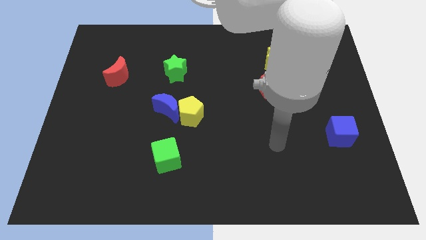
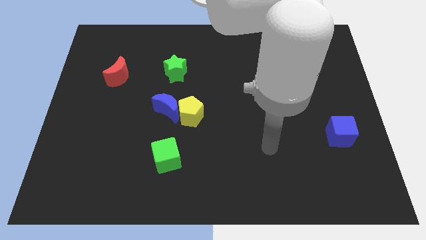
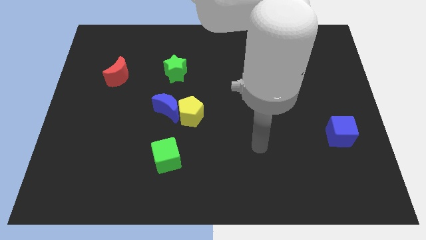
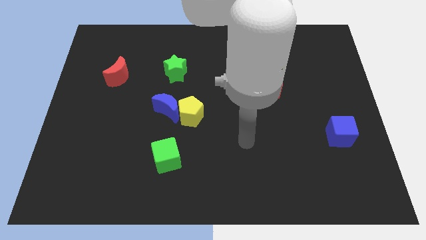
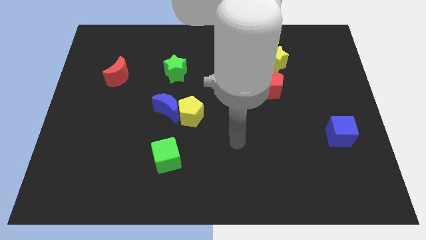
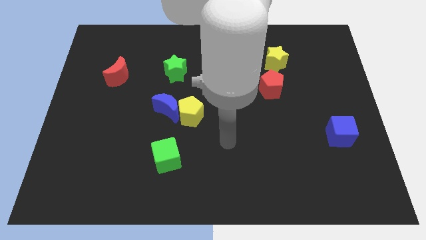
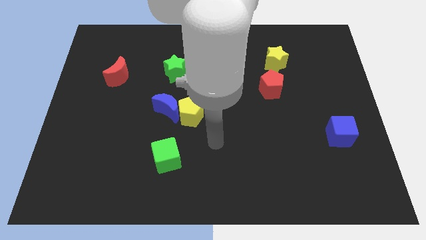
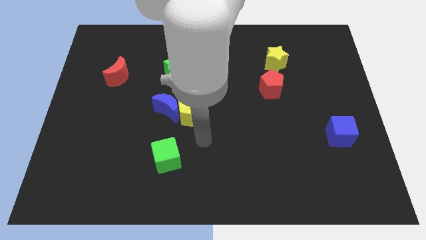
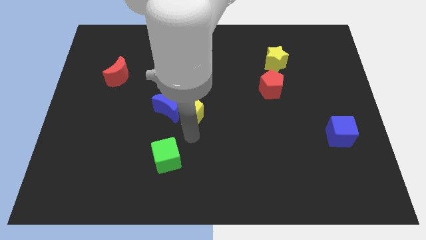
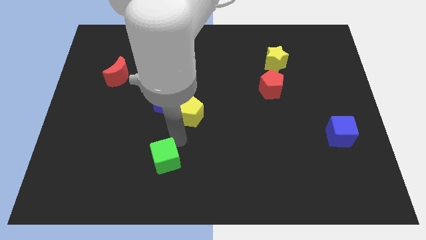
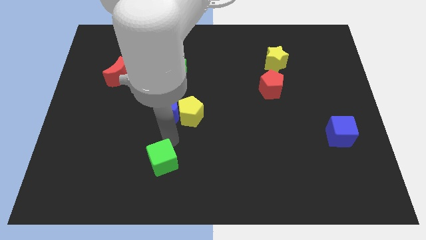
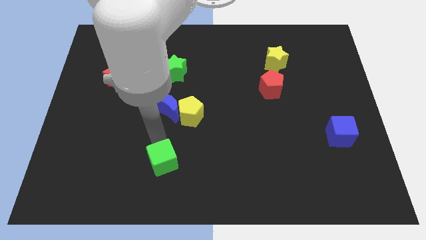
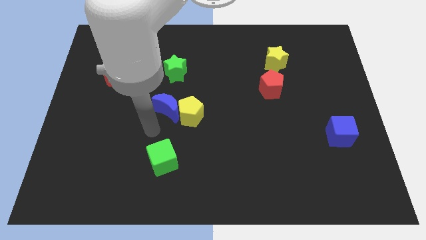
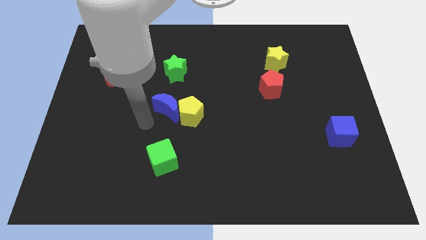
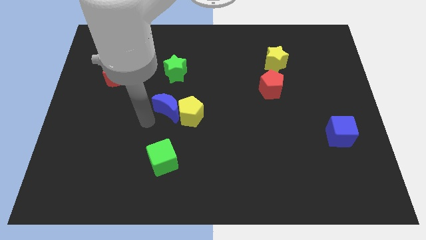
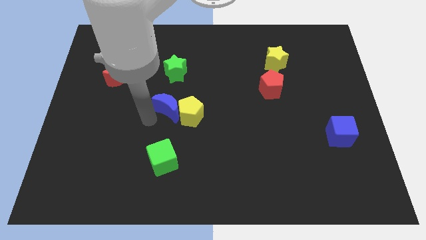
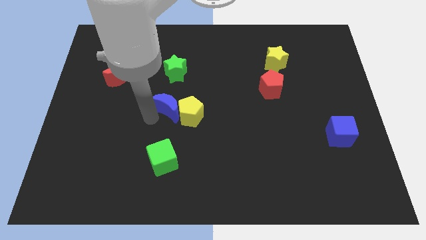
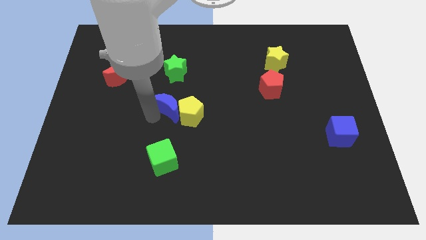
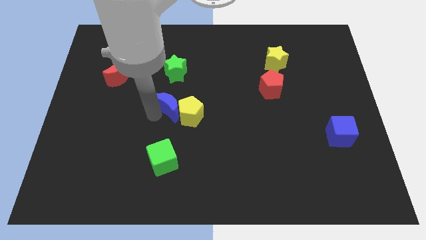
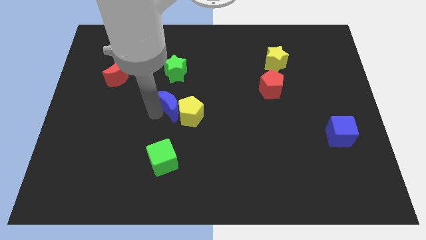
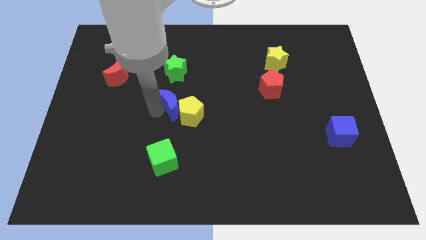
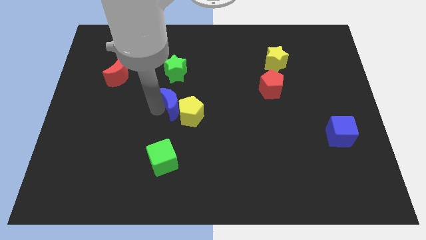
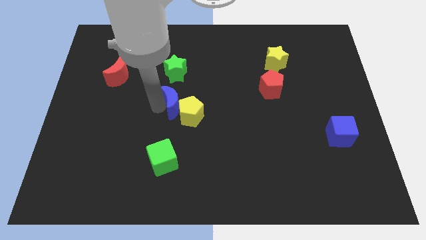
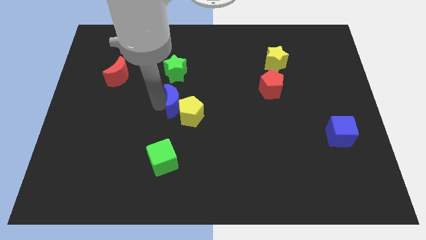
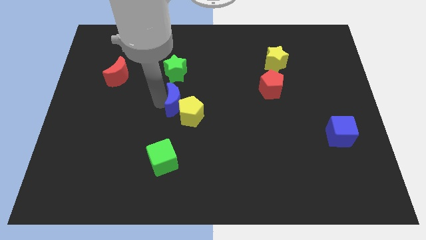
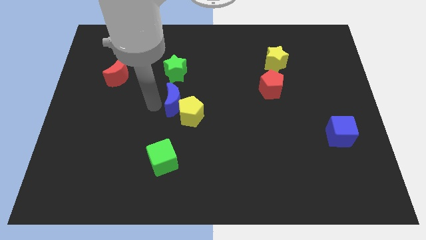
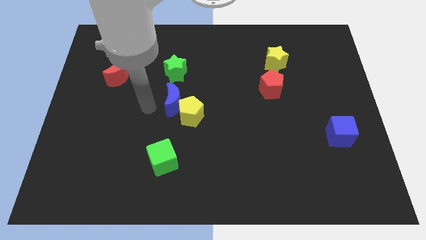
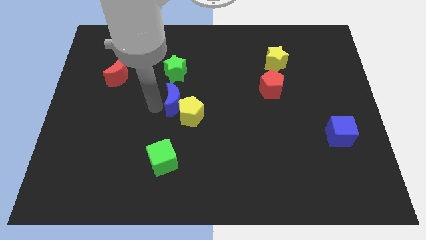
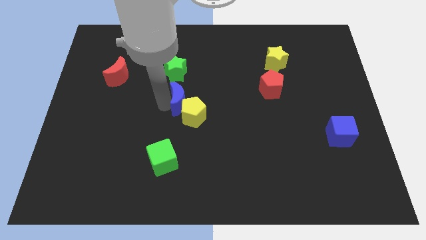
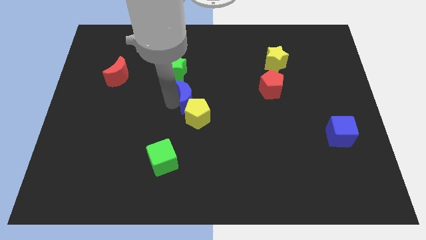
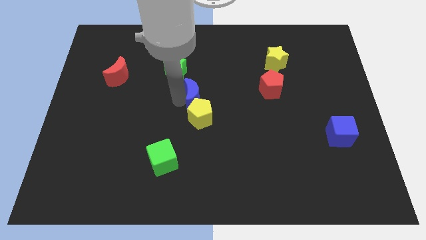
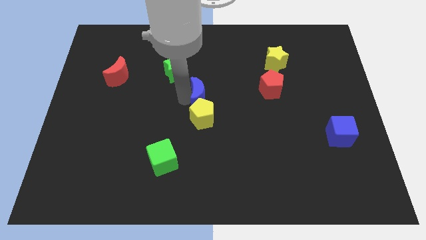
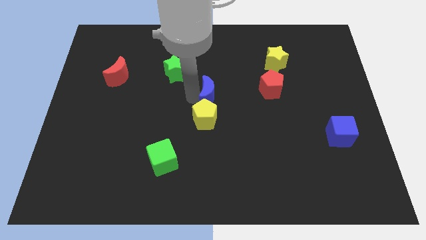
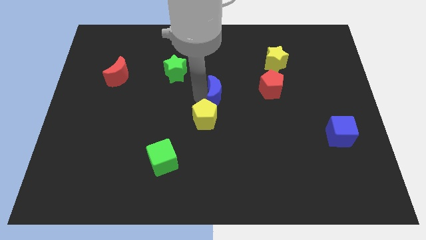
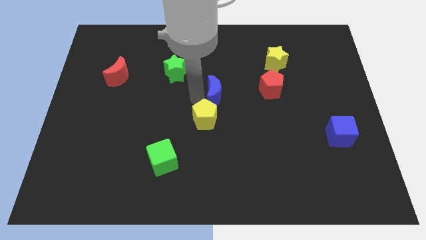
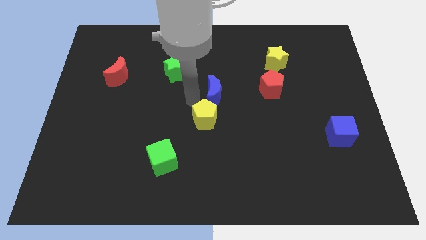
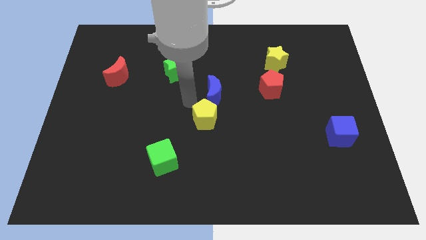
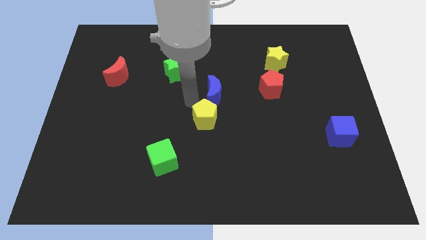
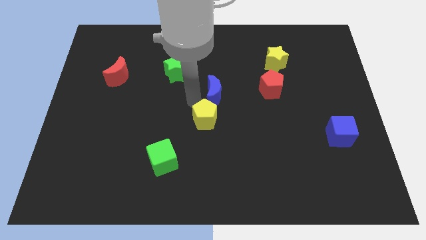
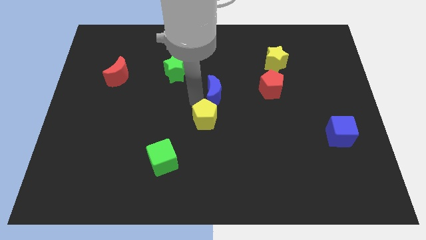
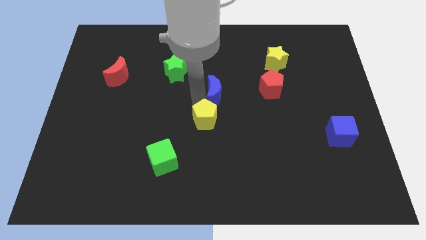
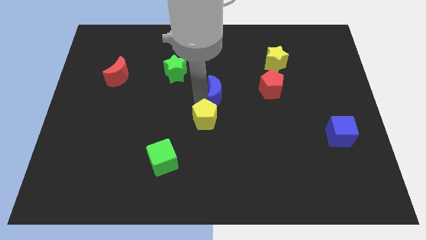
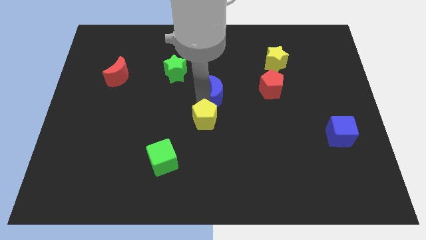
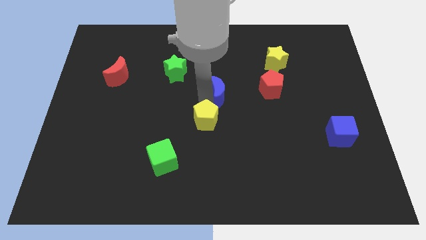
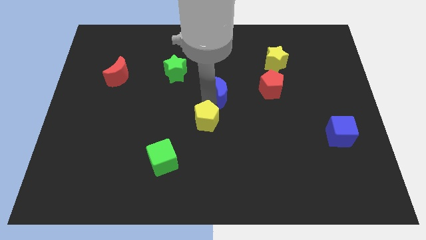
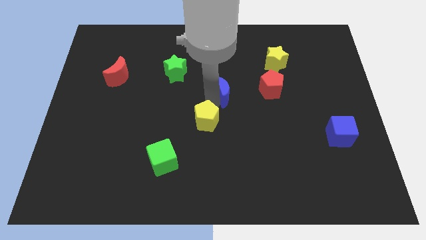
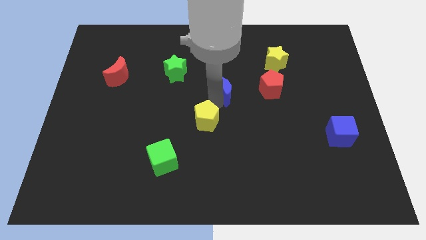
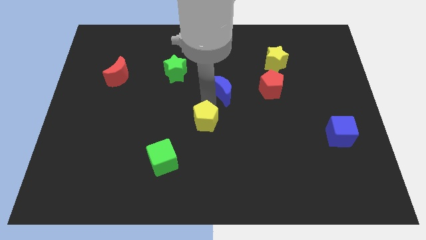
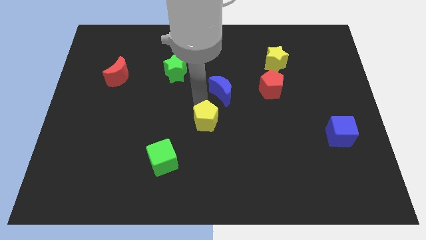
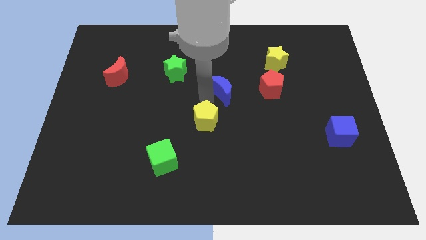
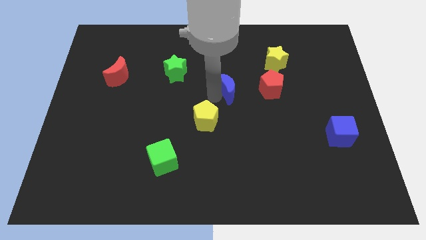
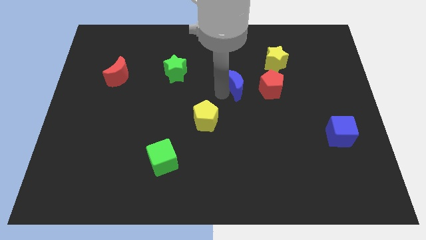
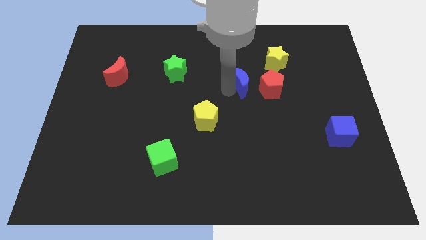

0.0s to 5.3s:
slide the blue moon to the bottom left side of the yellow star

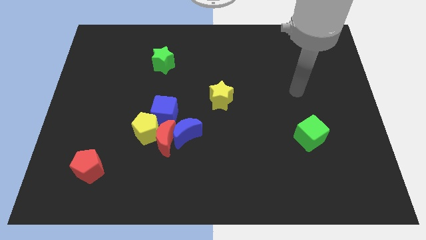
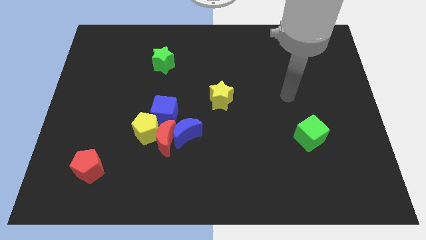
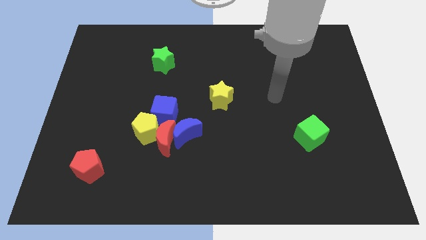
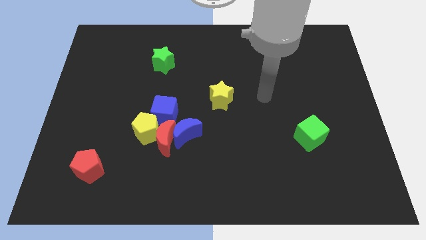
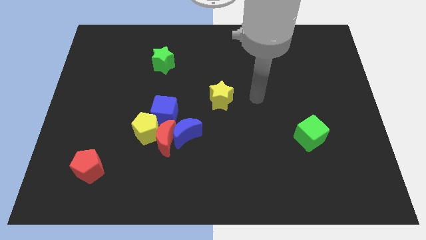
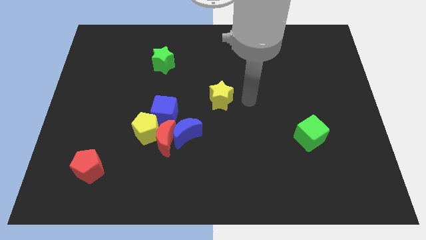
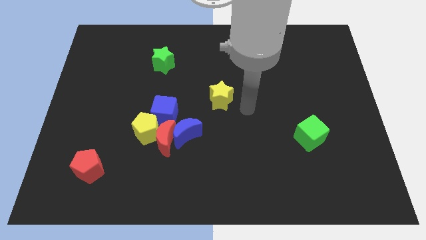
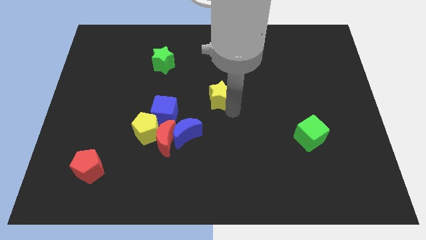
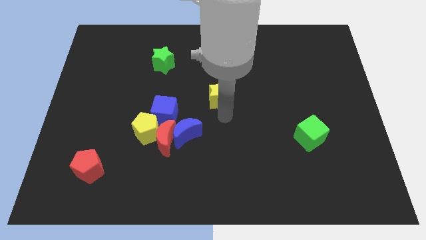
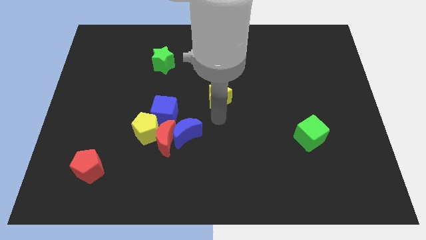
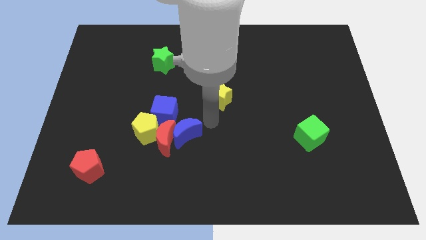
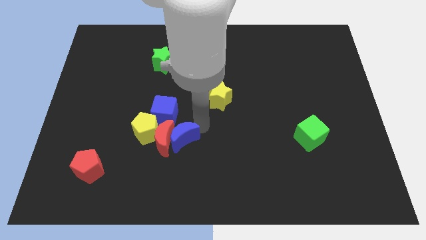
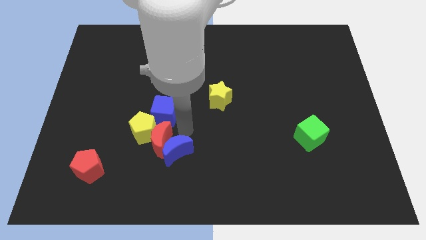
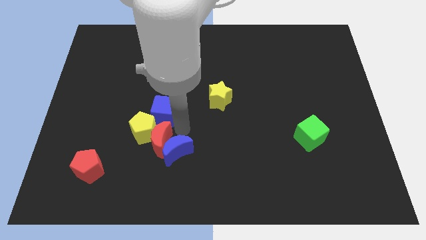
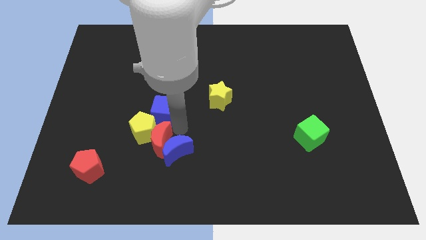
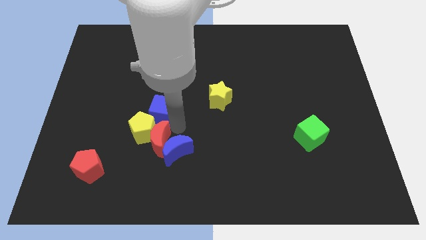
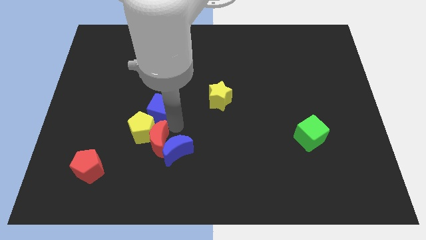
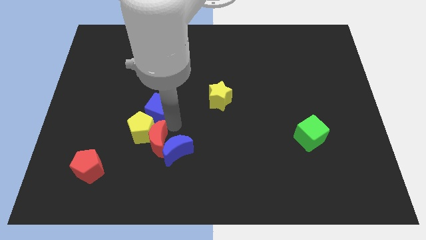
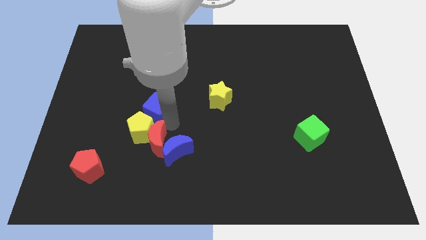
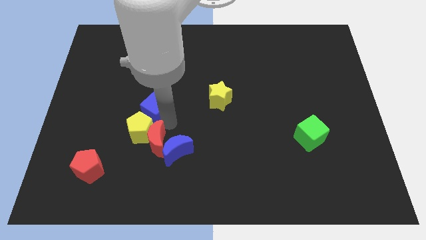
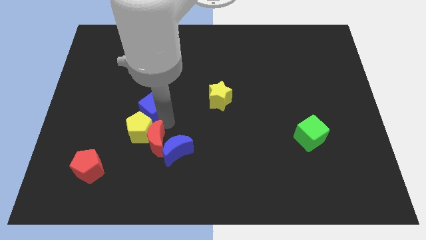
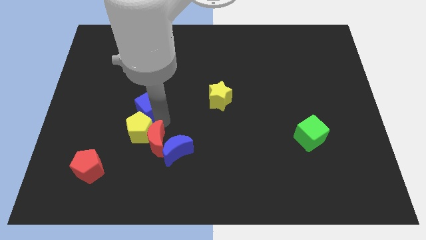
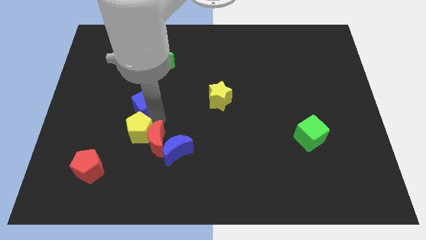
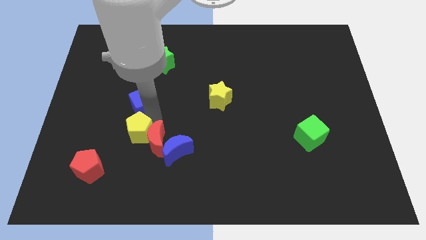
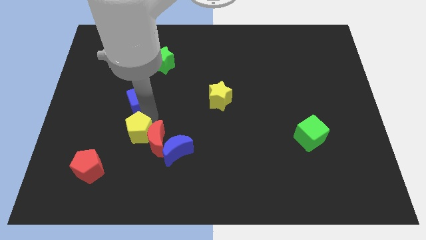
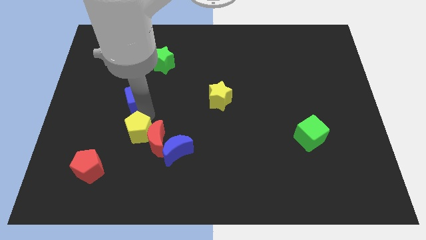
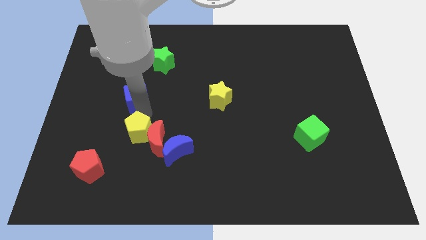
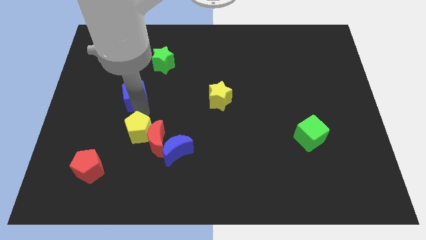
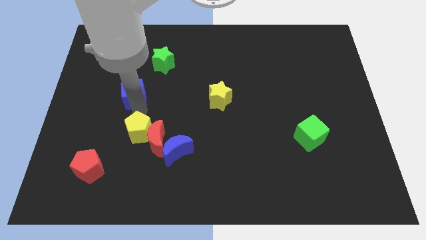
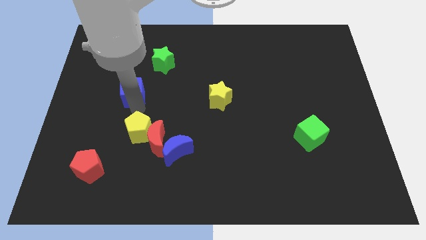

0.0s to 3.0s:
slide the blue cube to the bottom left of the green star

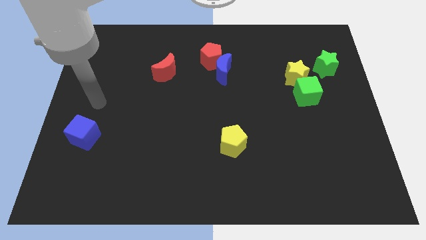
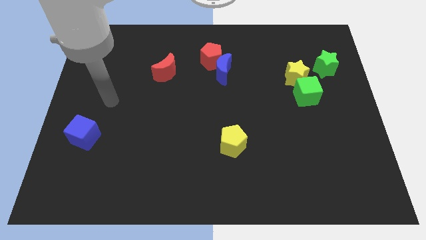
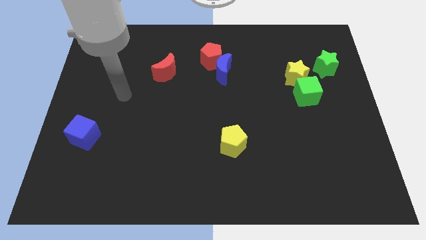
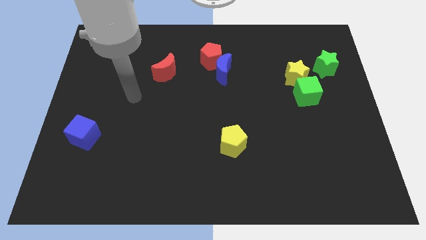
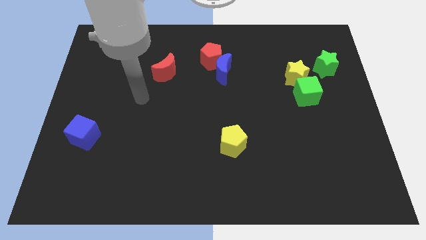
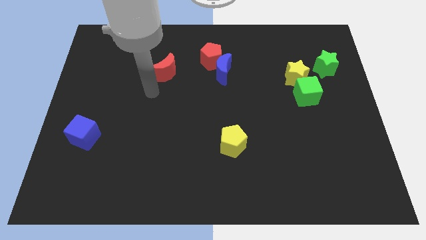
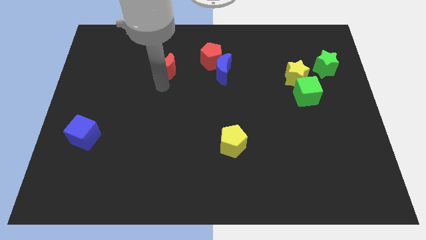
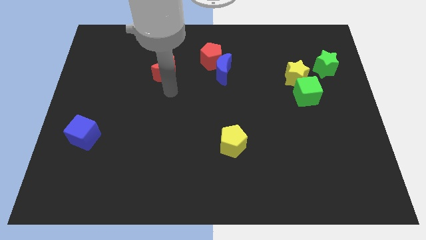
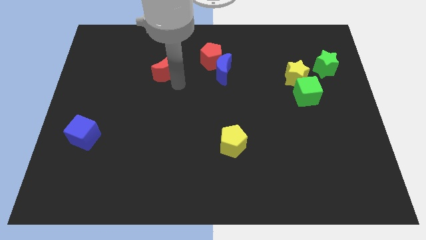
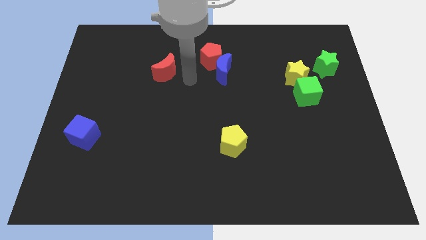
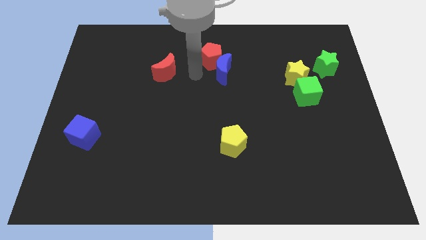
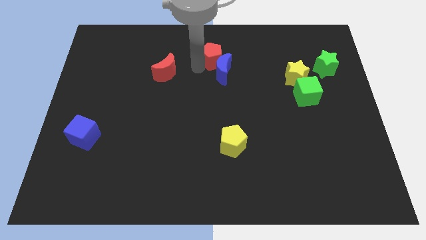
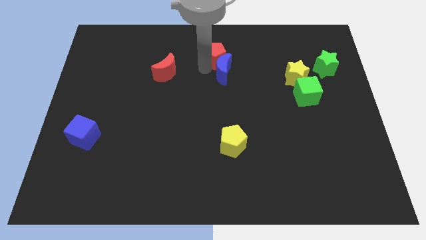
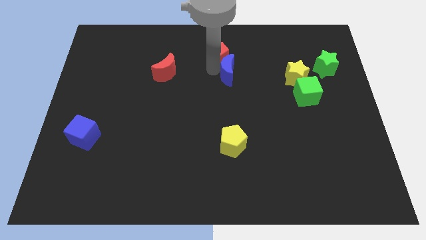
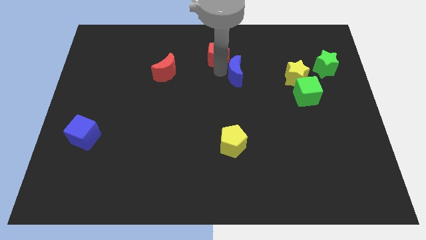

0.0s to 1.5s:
slide the blue moon just left of the yellow star
